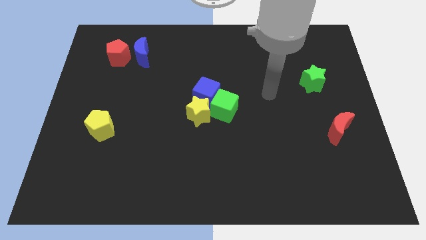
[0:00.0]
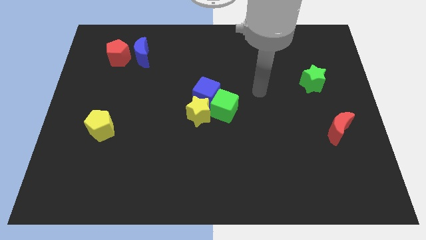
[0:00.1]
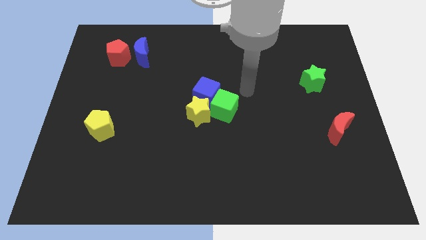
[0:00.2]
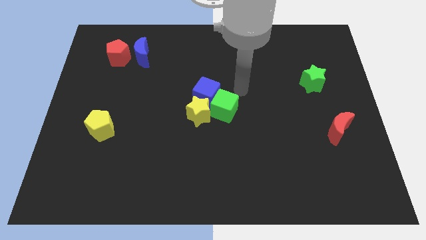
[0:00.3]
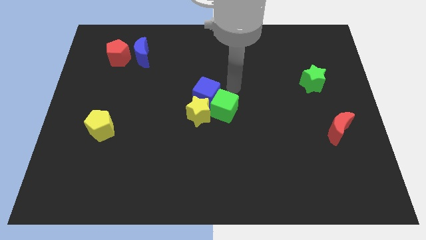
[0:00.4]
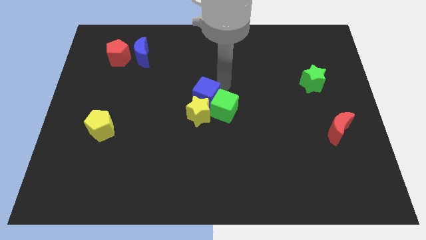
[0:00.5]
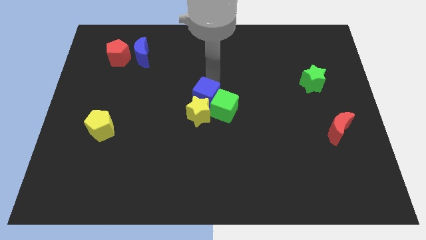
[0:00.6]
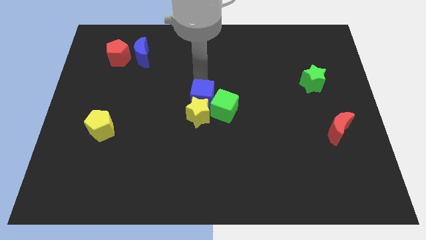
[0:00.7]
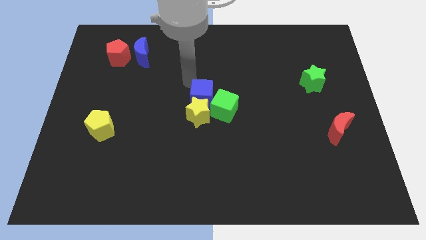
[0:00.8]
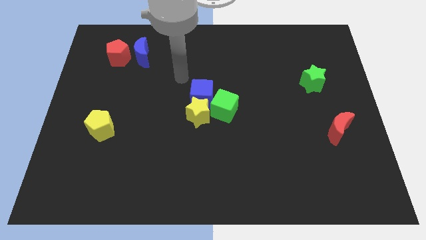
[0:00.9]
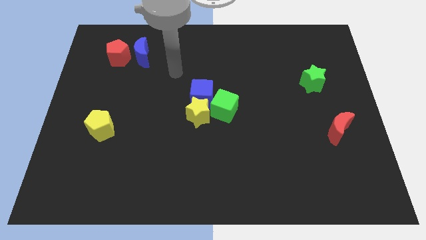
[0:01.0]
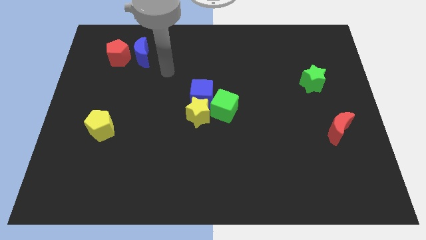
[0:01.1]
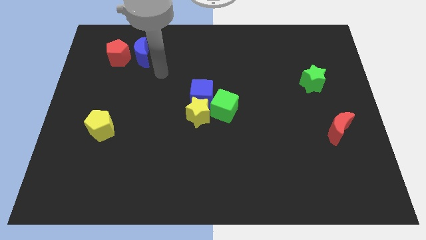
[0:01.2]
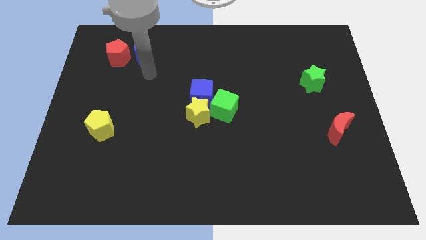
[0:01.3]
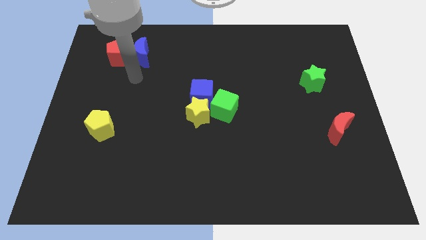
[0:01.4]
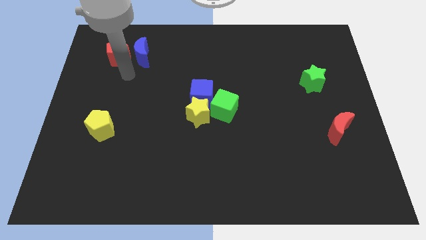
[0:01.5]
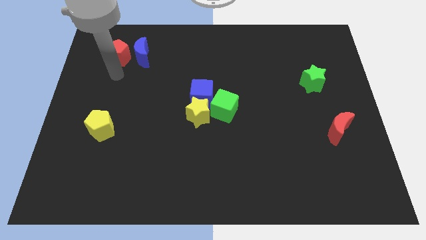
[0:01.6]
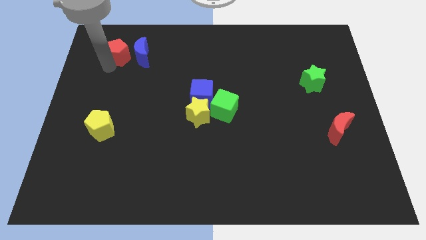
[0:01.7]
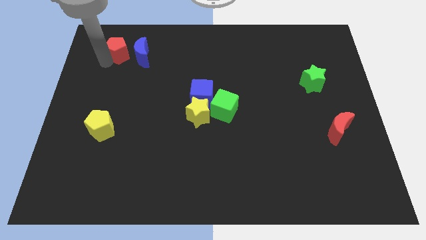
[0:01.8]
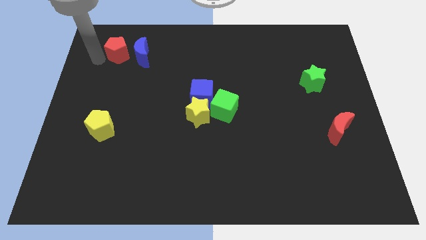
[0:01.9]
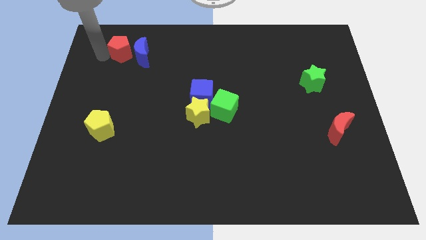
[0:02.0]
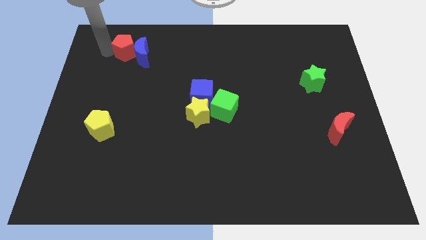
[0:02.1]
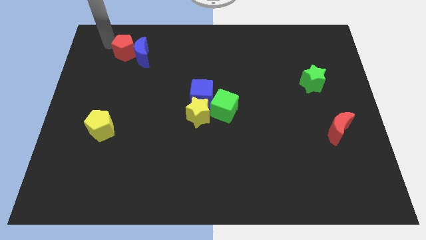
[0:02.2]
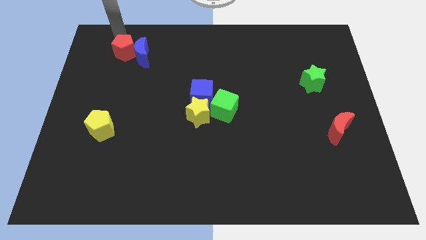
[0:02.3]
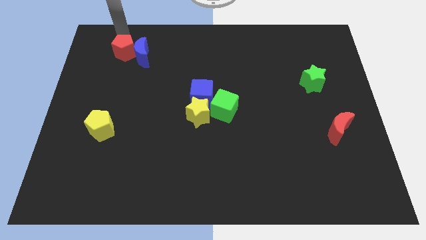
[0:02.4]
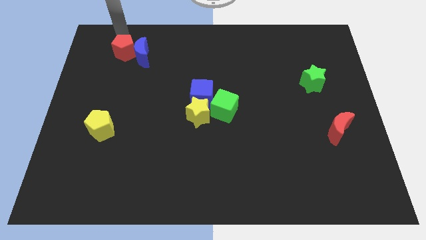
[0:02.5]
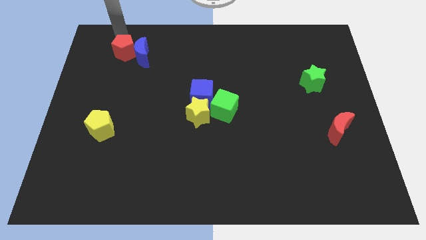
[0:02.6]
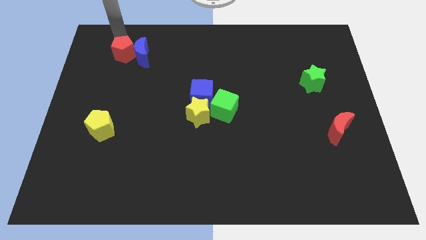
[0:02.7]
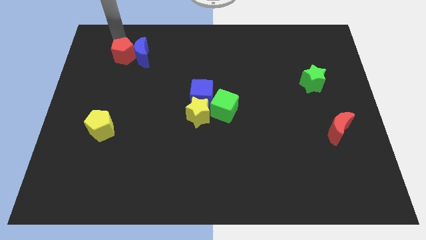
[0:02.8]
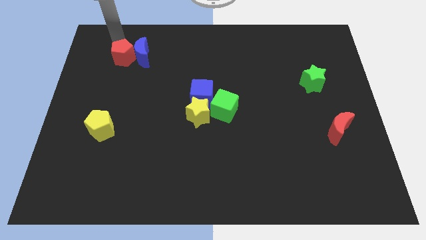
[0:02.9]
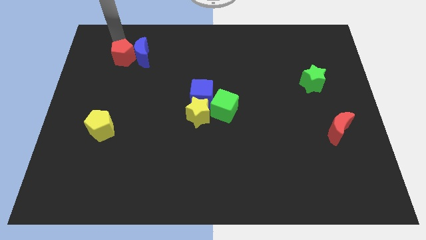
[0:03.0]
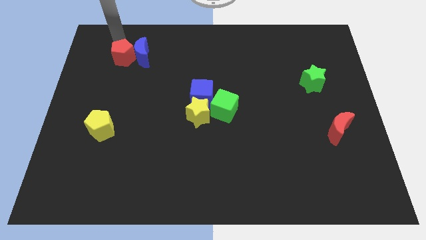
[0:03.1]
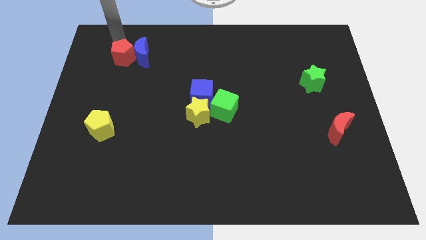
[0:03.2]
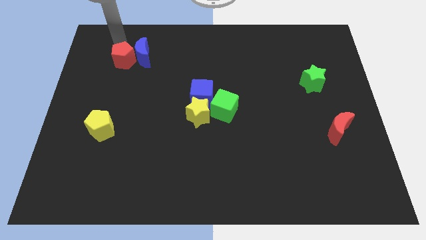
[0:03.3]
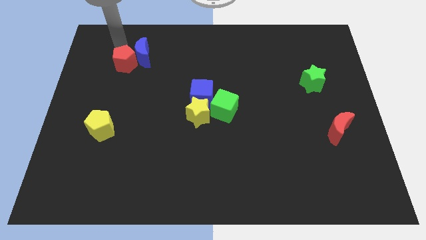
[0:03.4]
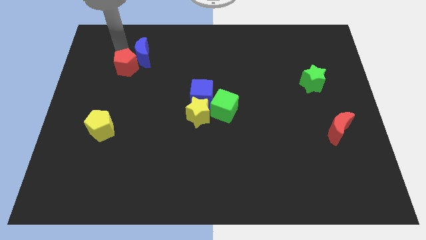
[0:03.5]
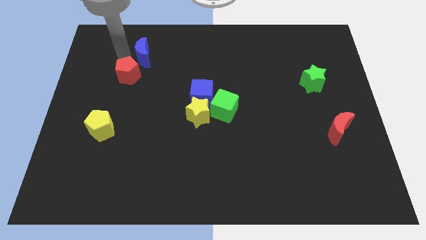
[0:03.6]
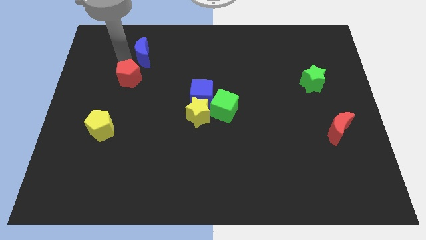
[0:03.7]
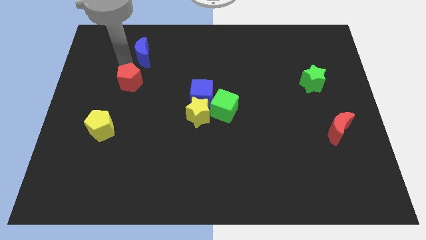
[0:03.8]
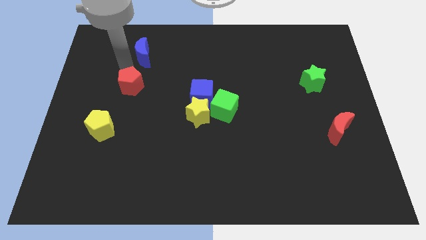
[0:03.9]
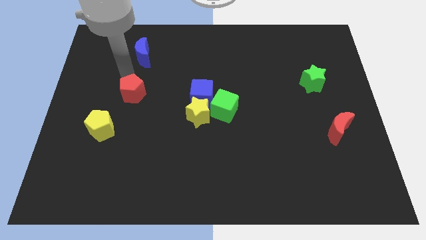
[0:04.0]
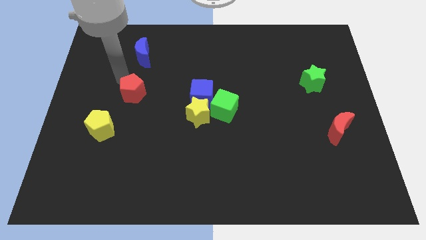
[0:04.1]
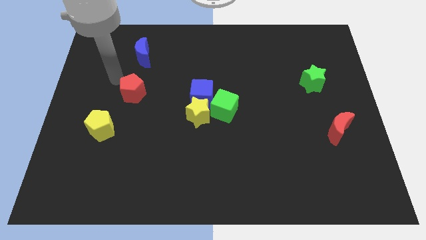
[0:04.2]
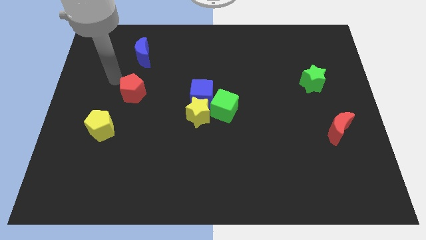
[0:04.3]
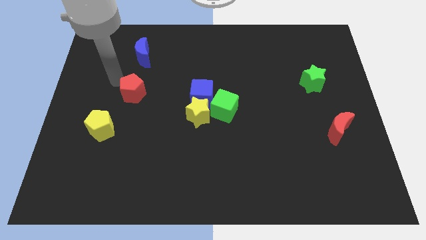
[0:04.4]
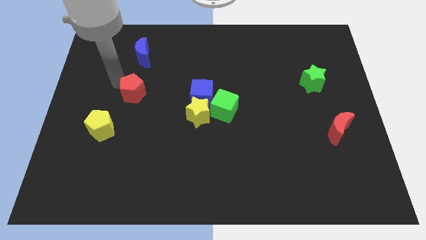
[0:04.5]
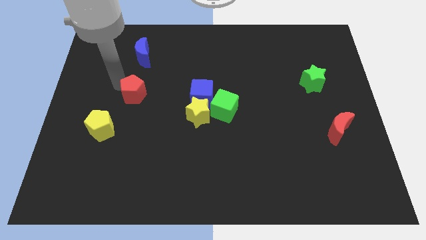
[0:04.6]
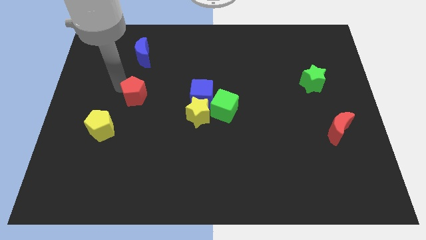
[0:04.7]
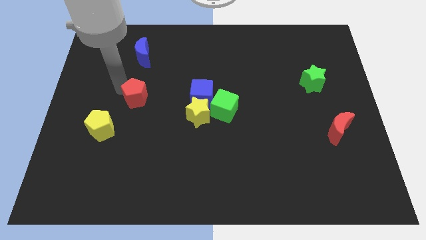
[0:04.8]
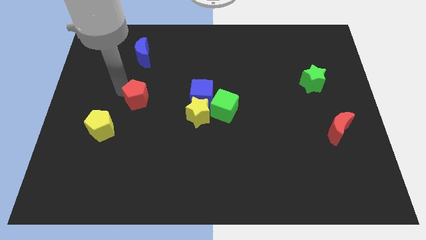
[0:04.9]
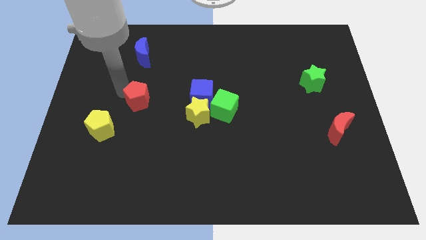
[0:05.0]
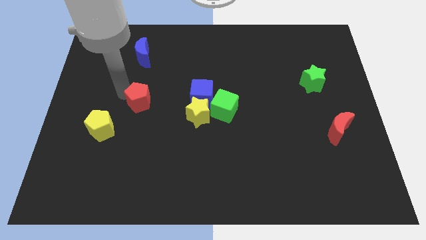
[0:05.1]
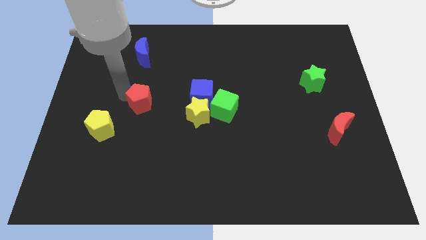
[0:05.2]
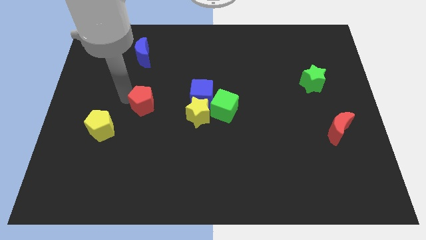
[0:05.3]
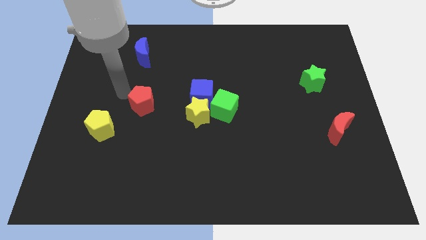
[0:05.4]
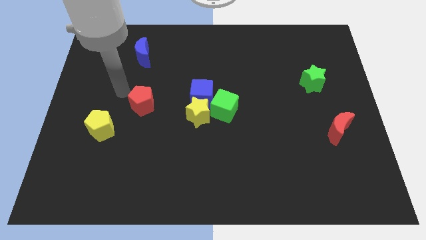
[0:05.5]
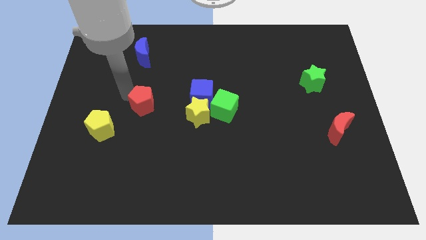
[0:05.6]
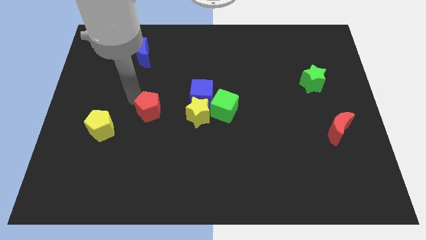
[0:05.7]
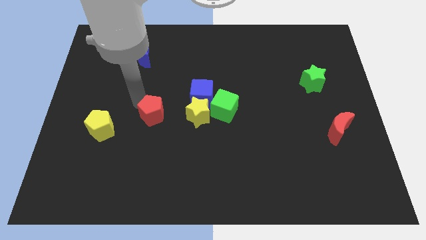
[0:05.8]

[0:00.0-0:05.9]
slide the red pentagon down and then to the right

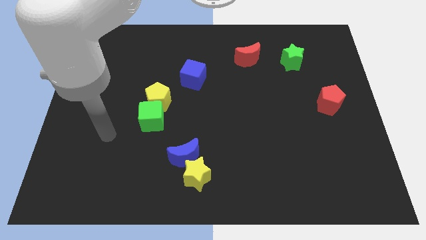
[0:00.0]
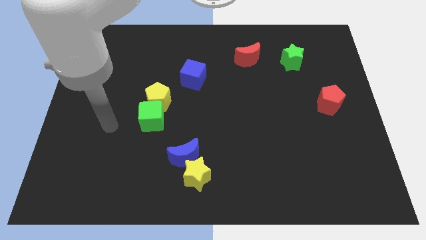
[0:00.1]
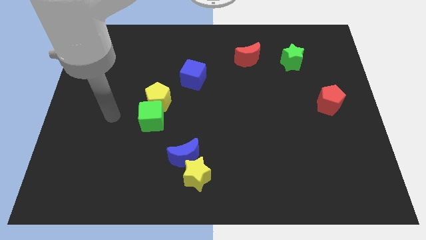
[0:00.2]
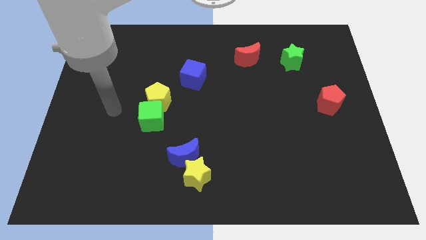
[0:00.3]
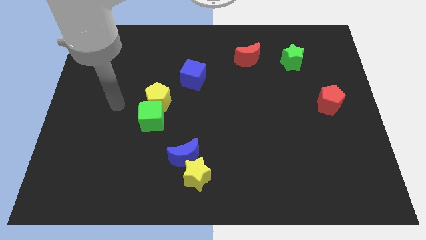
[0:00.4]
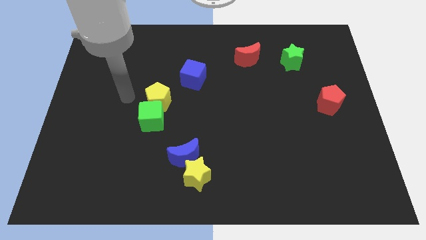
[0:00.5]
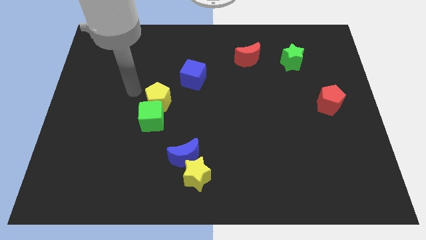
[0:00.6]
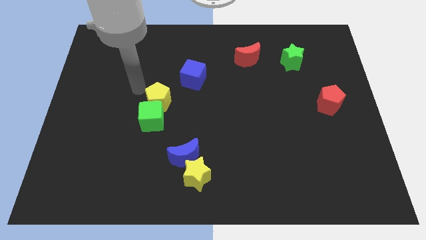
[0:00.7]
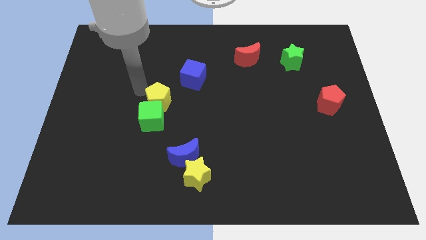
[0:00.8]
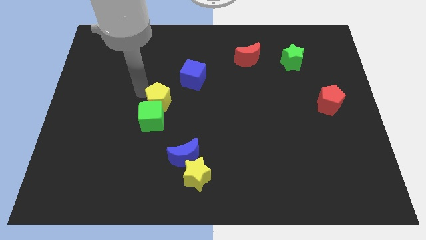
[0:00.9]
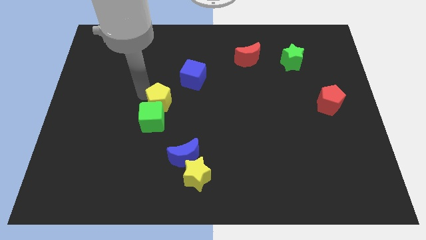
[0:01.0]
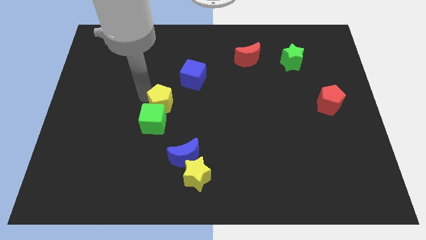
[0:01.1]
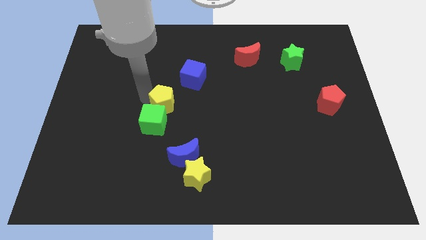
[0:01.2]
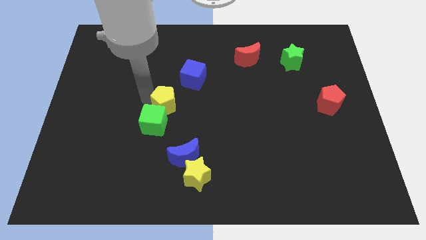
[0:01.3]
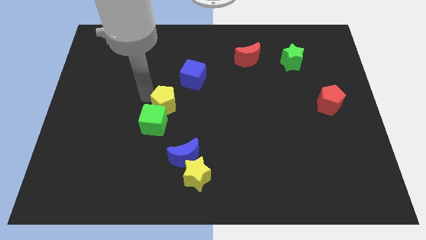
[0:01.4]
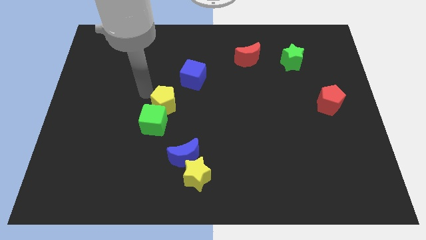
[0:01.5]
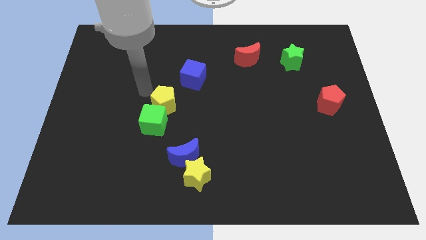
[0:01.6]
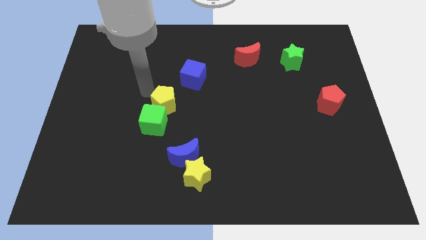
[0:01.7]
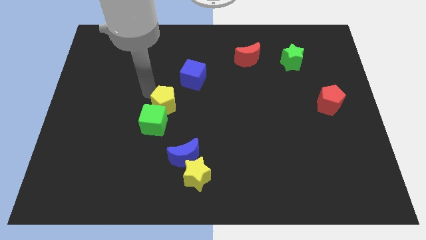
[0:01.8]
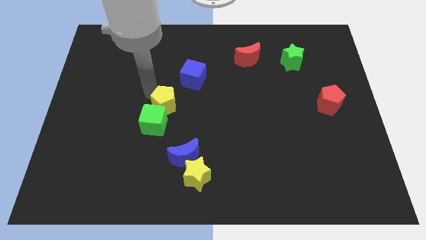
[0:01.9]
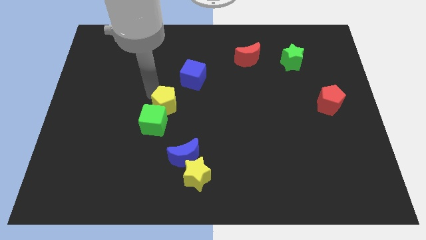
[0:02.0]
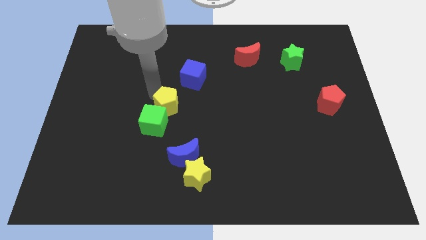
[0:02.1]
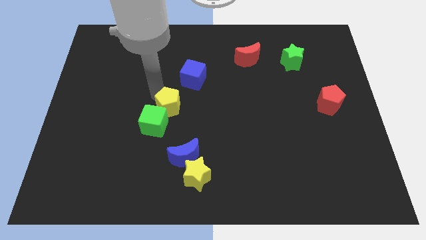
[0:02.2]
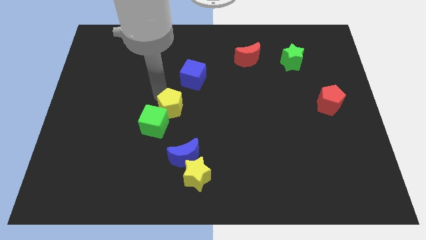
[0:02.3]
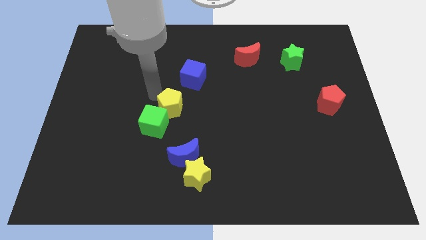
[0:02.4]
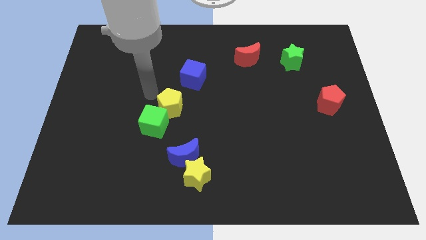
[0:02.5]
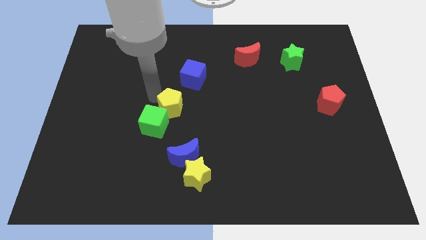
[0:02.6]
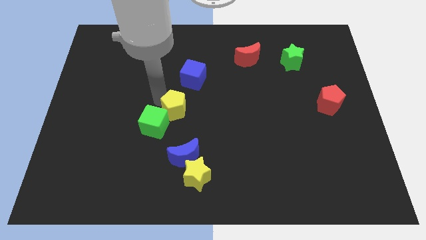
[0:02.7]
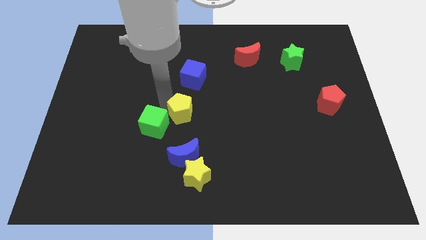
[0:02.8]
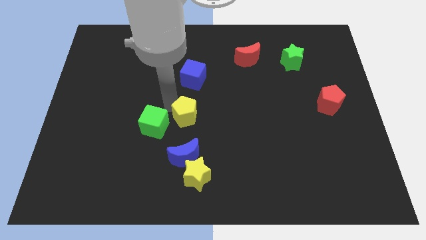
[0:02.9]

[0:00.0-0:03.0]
move the yellow pentagon downwards and to the right diagonally a bit
